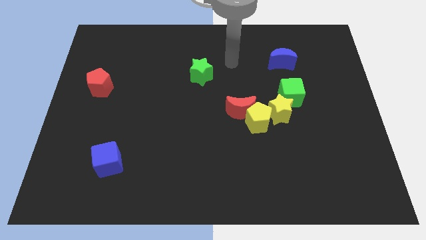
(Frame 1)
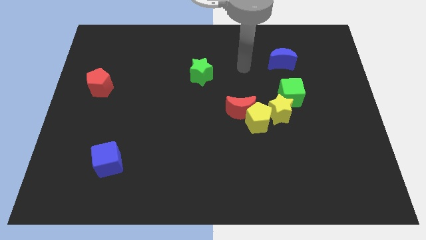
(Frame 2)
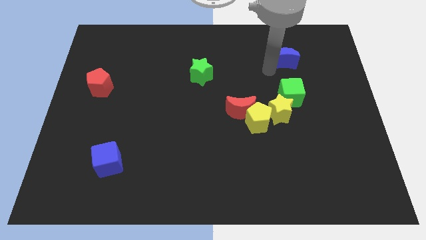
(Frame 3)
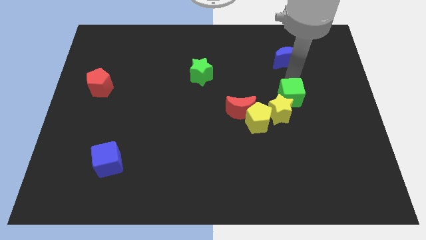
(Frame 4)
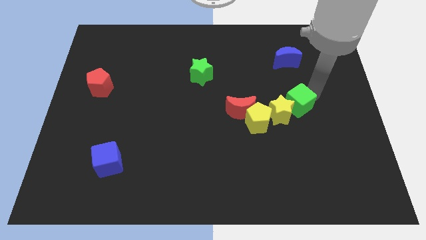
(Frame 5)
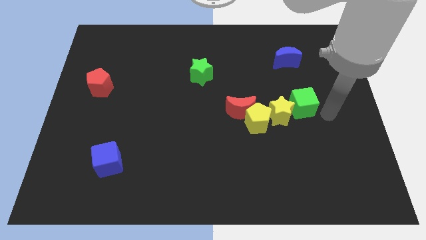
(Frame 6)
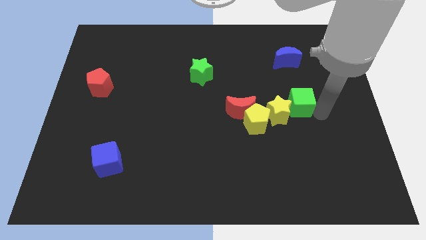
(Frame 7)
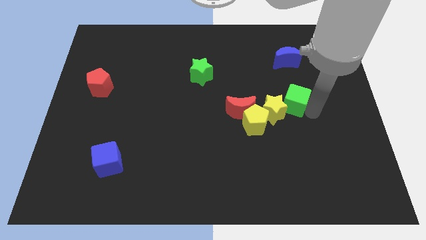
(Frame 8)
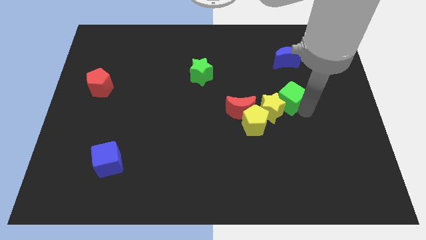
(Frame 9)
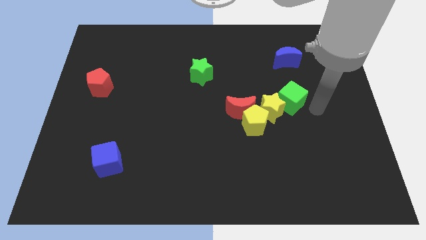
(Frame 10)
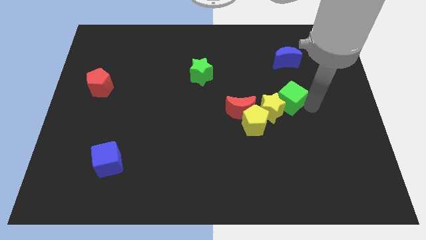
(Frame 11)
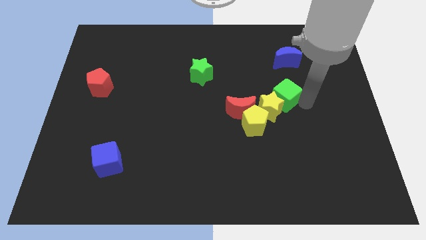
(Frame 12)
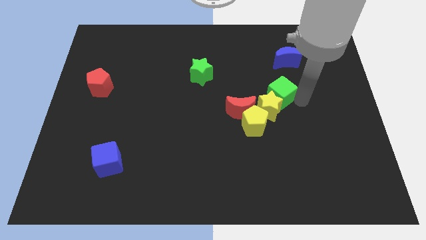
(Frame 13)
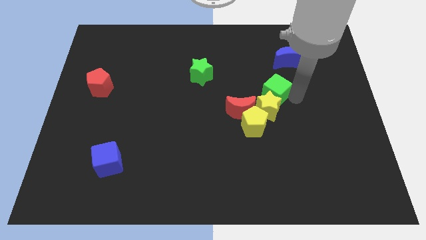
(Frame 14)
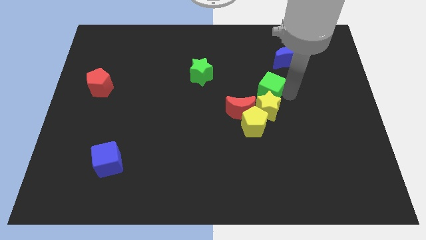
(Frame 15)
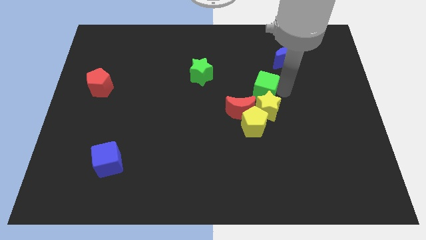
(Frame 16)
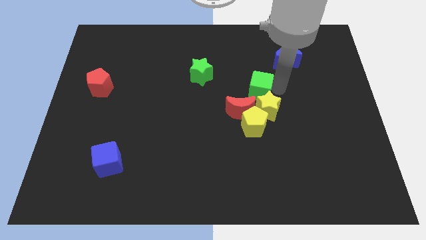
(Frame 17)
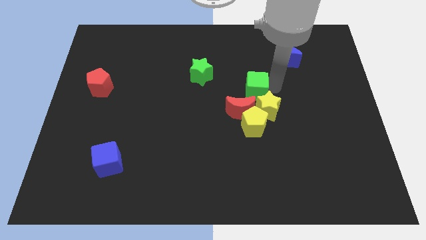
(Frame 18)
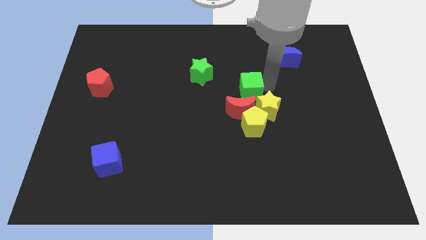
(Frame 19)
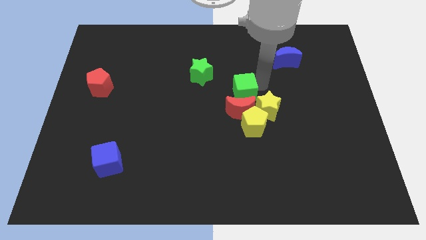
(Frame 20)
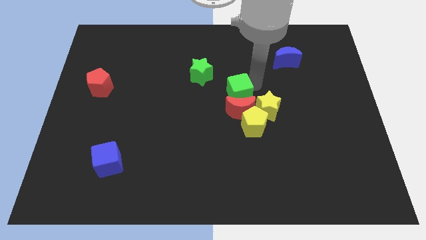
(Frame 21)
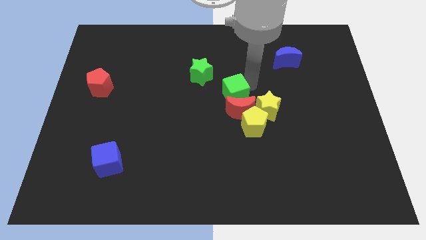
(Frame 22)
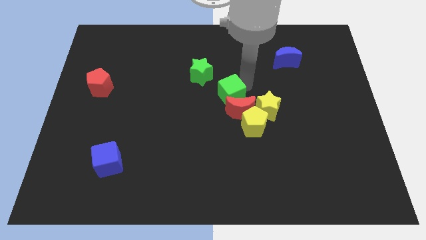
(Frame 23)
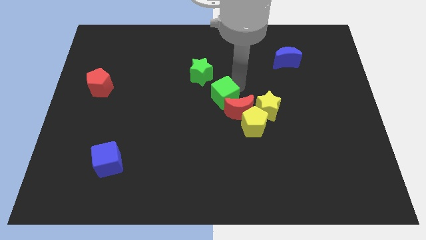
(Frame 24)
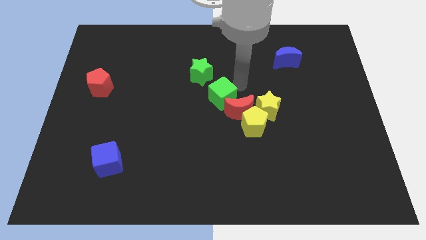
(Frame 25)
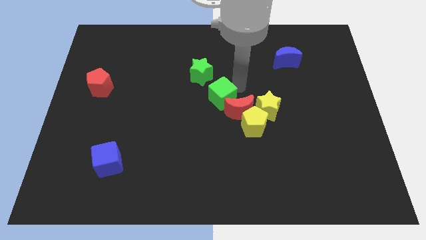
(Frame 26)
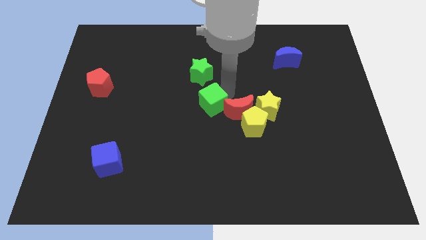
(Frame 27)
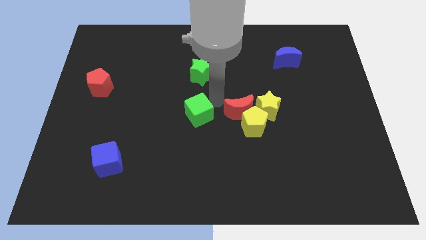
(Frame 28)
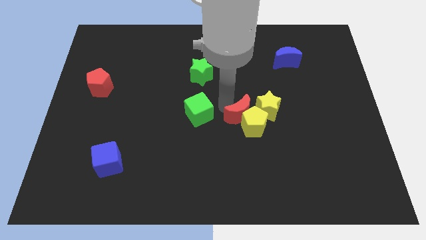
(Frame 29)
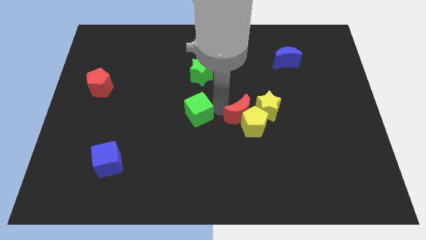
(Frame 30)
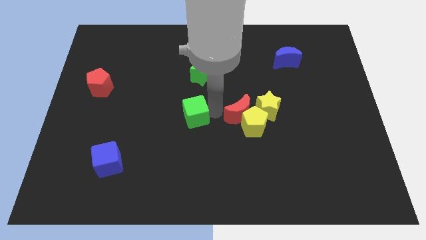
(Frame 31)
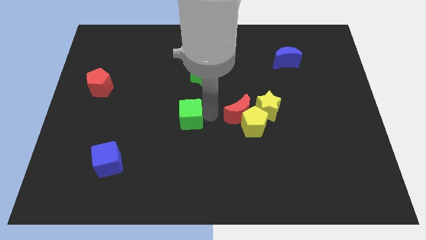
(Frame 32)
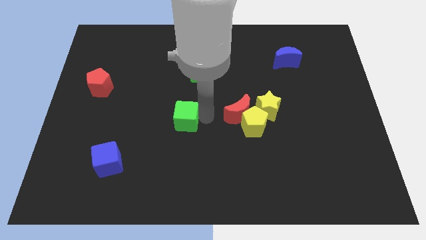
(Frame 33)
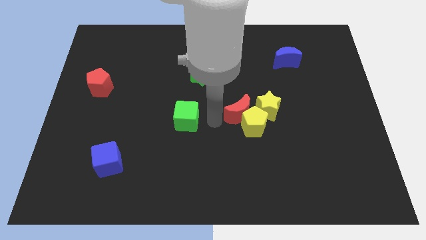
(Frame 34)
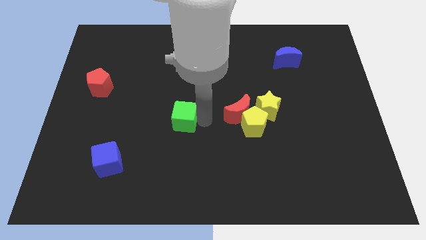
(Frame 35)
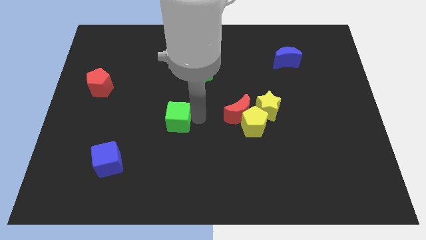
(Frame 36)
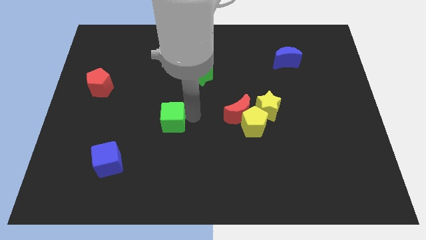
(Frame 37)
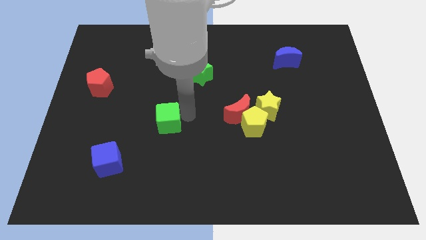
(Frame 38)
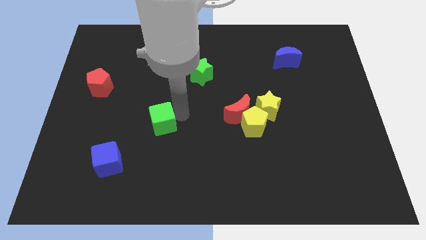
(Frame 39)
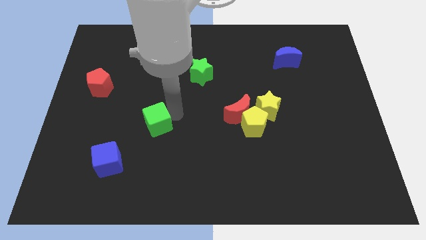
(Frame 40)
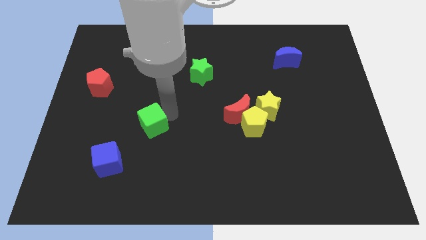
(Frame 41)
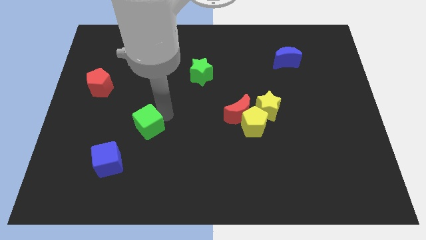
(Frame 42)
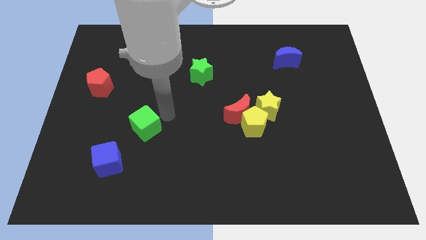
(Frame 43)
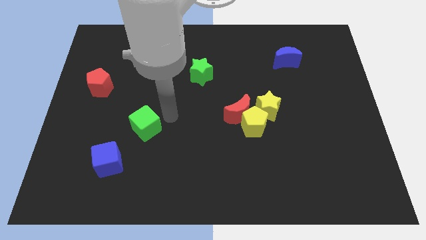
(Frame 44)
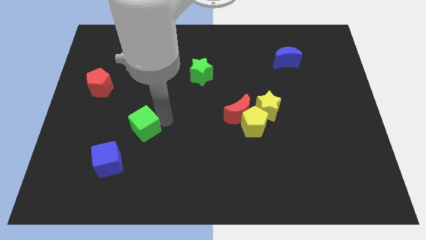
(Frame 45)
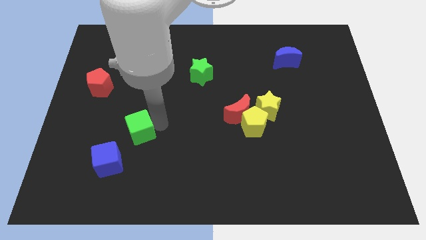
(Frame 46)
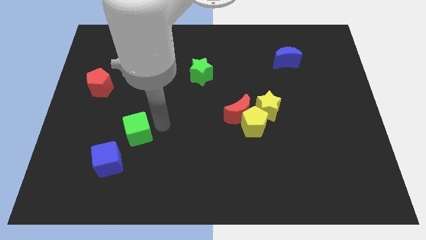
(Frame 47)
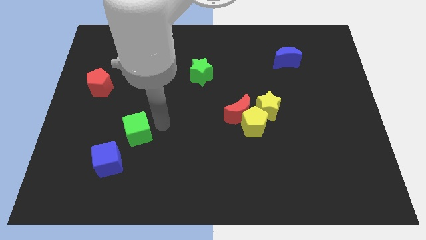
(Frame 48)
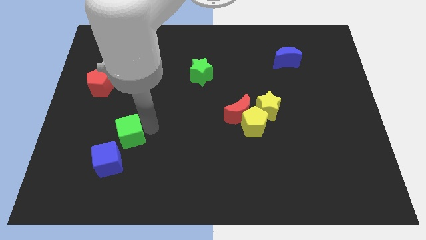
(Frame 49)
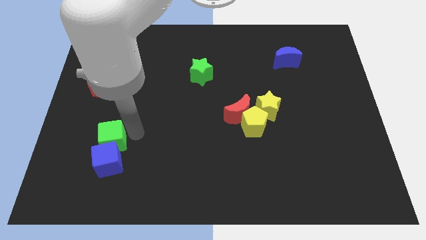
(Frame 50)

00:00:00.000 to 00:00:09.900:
put the green cube to the top left side of the blue cube
